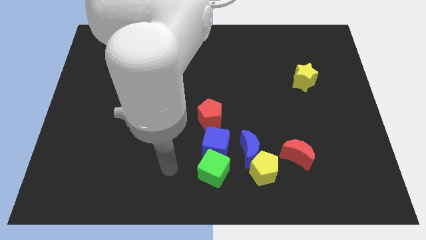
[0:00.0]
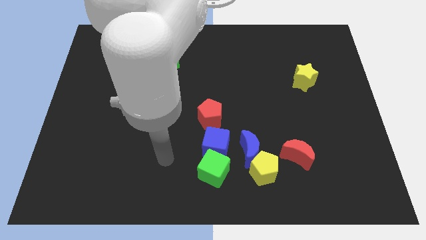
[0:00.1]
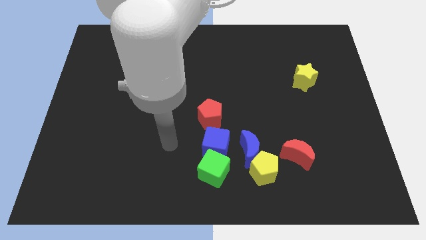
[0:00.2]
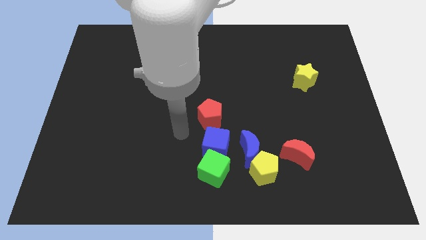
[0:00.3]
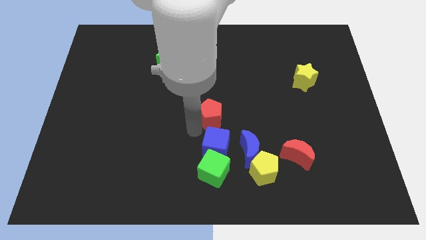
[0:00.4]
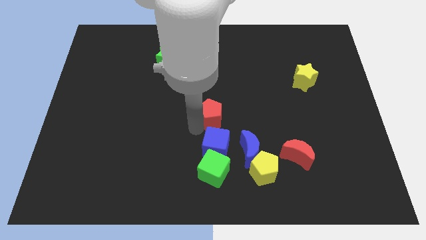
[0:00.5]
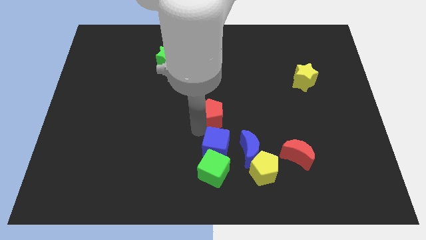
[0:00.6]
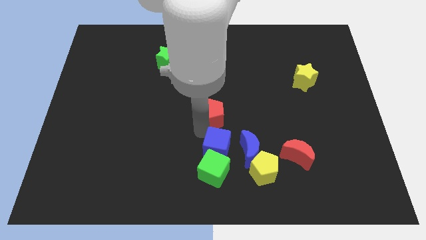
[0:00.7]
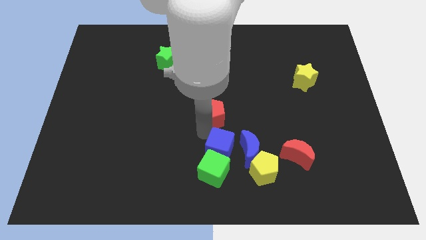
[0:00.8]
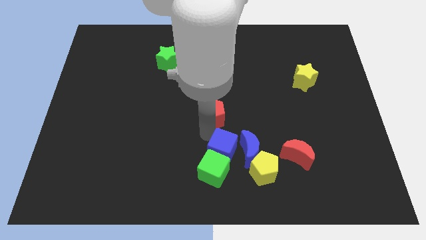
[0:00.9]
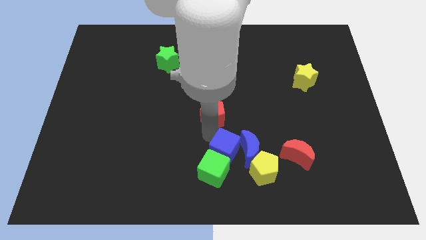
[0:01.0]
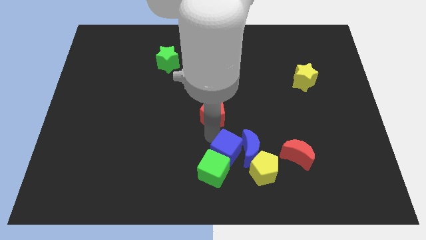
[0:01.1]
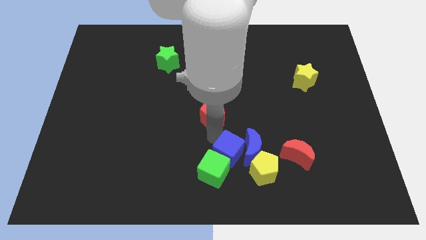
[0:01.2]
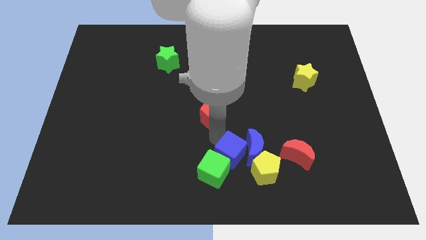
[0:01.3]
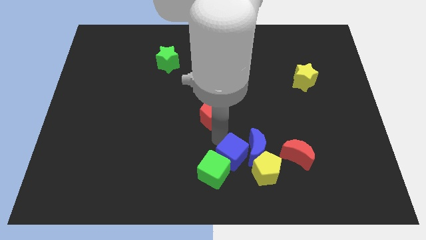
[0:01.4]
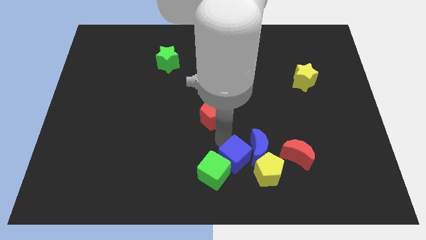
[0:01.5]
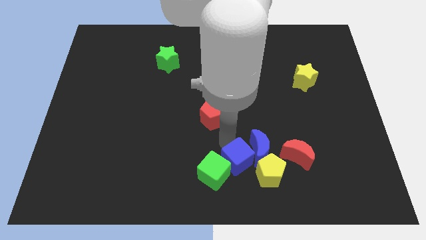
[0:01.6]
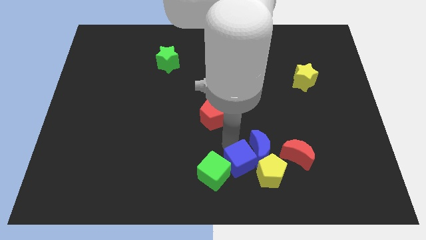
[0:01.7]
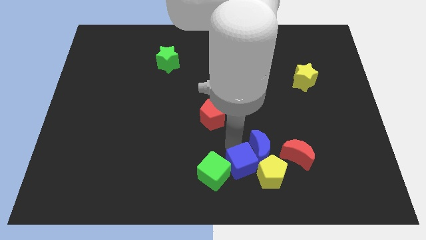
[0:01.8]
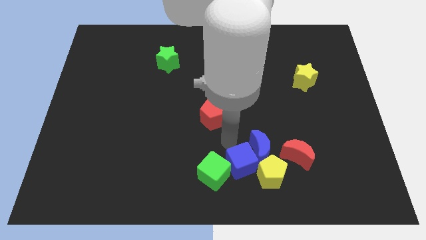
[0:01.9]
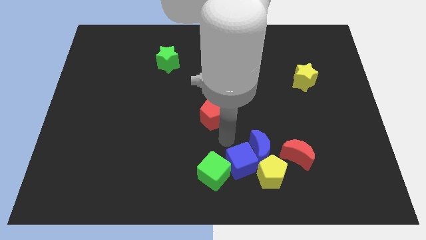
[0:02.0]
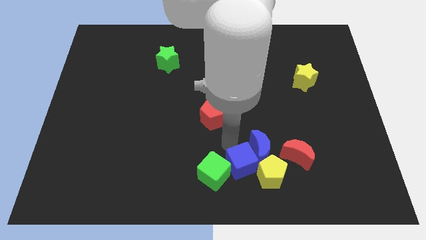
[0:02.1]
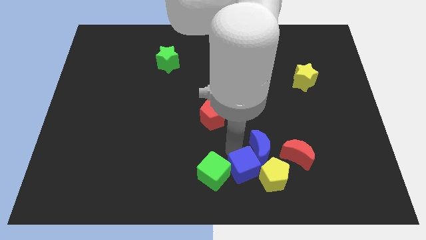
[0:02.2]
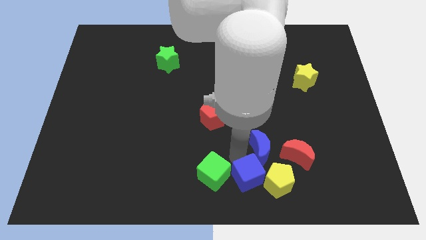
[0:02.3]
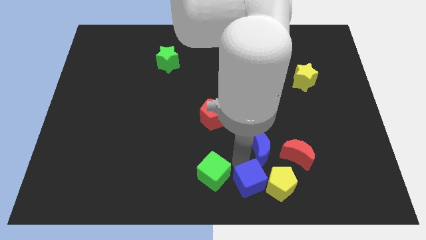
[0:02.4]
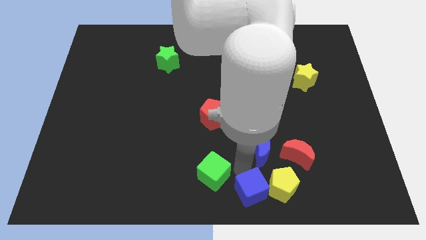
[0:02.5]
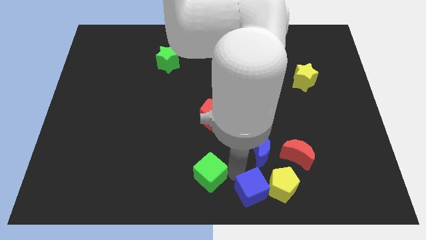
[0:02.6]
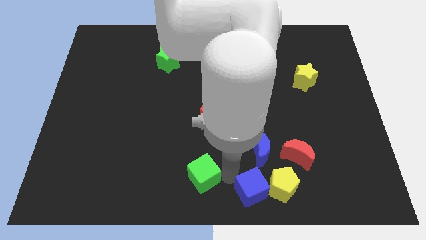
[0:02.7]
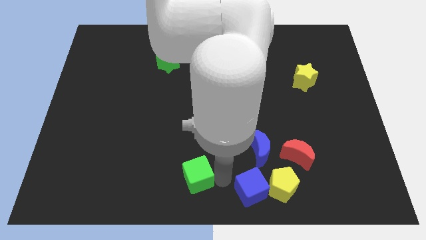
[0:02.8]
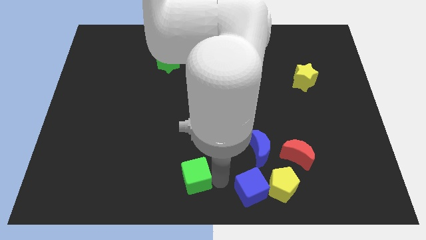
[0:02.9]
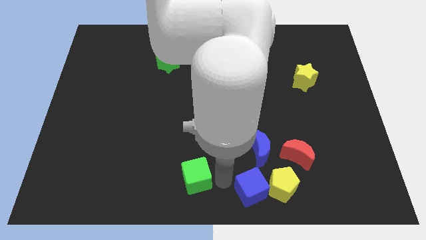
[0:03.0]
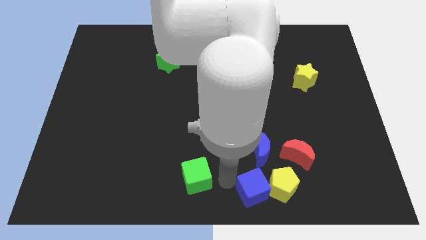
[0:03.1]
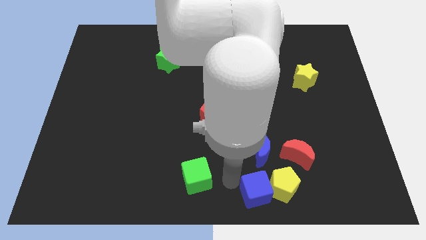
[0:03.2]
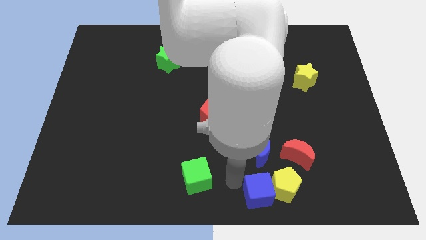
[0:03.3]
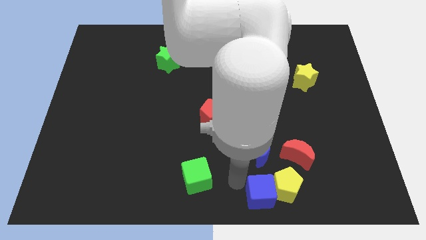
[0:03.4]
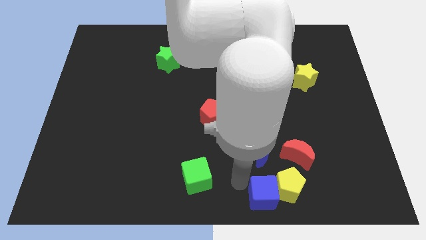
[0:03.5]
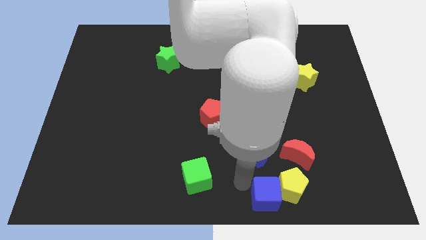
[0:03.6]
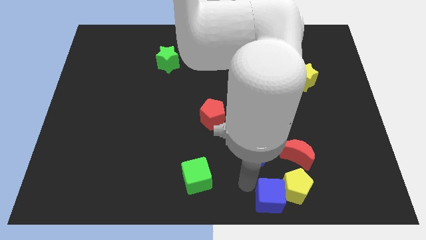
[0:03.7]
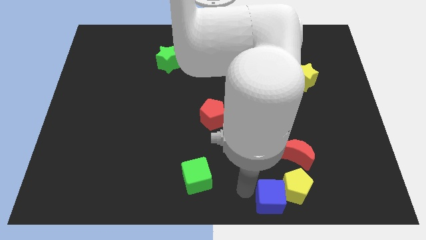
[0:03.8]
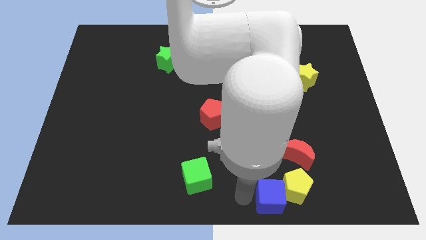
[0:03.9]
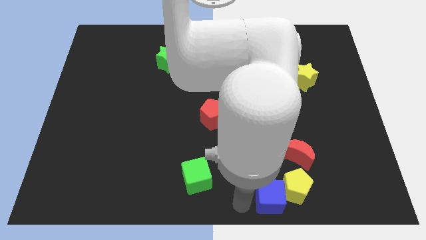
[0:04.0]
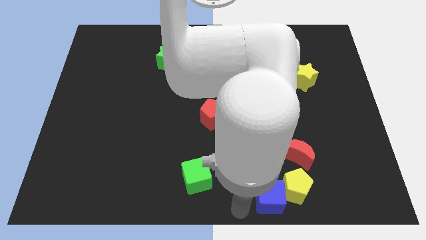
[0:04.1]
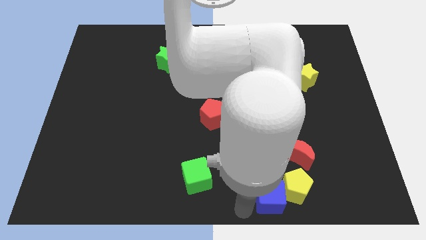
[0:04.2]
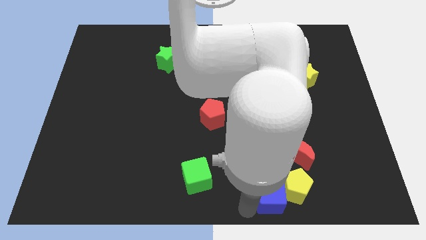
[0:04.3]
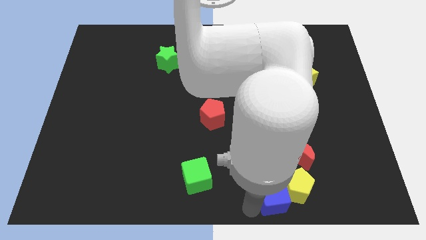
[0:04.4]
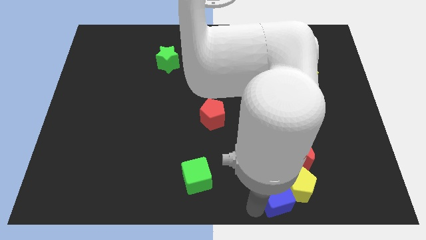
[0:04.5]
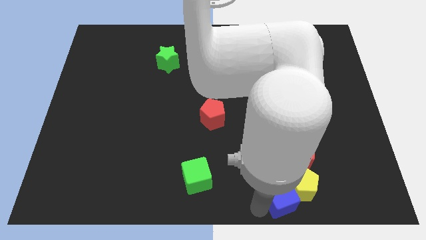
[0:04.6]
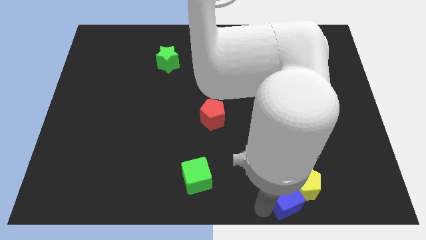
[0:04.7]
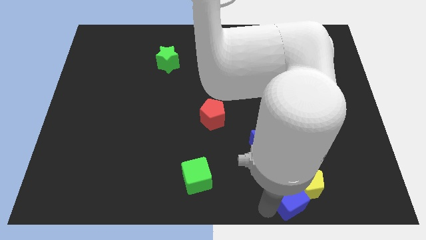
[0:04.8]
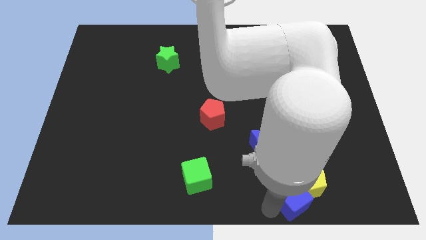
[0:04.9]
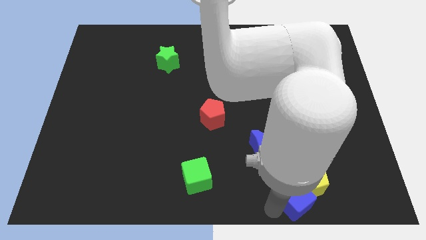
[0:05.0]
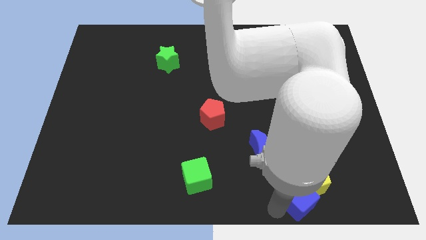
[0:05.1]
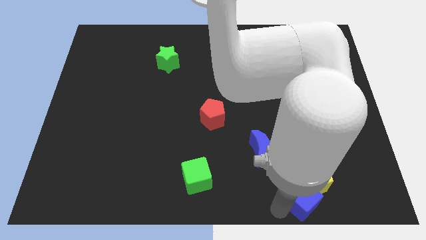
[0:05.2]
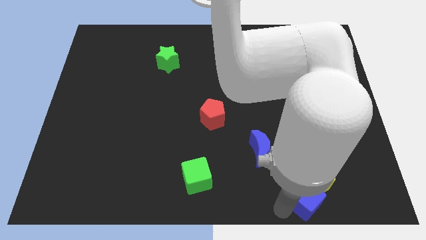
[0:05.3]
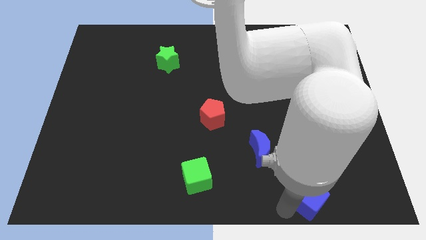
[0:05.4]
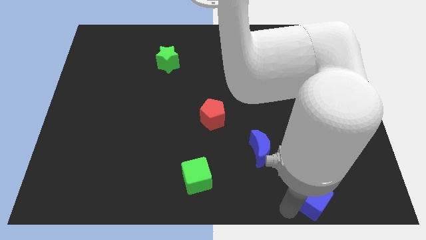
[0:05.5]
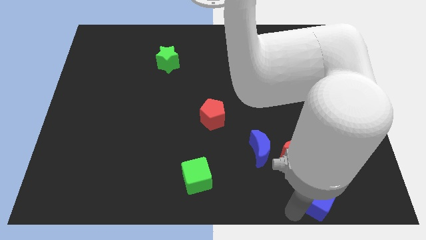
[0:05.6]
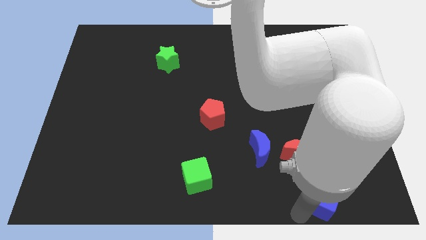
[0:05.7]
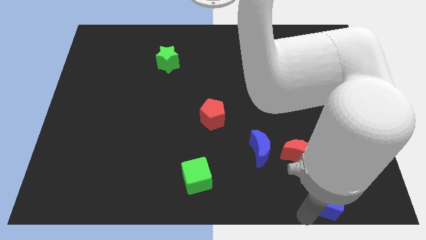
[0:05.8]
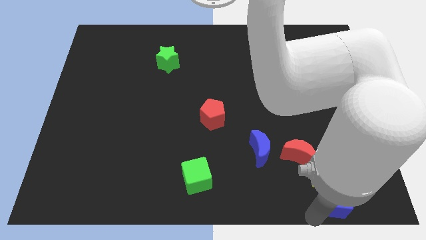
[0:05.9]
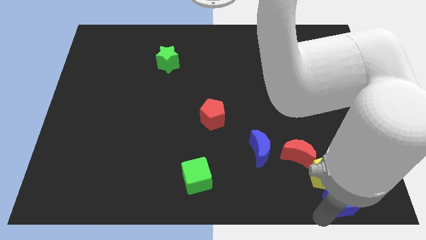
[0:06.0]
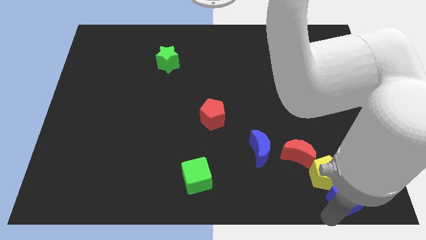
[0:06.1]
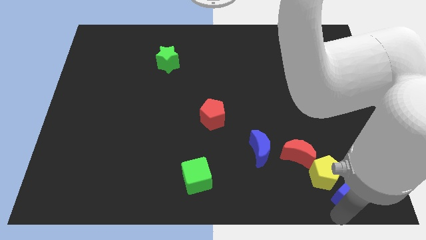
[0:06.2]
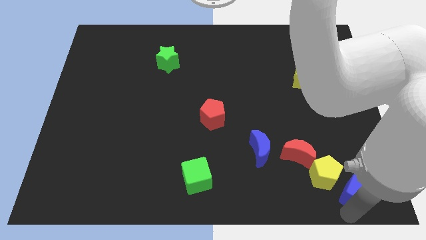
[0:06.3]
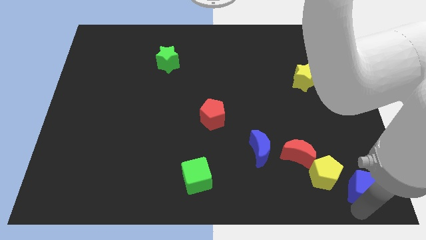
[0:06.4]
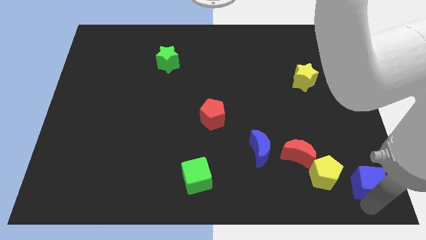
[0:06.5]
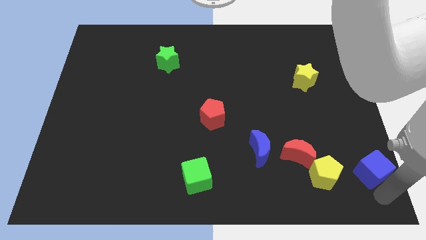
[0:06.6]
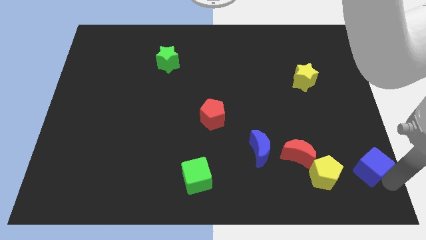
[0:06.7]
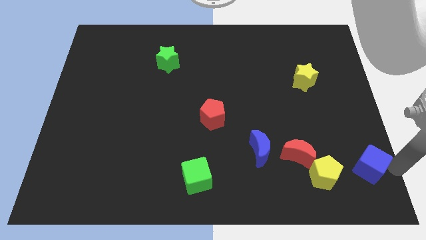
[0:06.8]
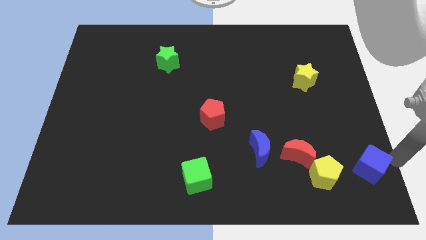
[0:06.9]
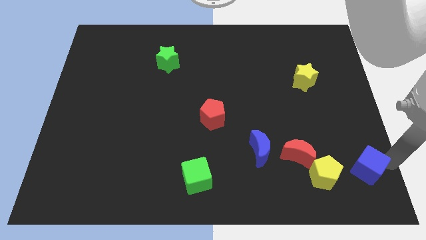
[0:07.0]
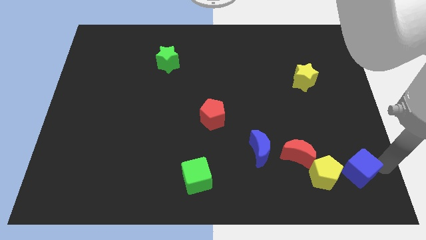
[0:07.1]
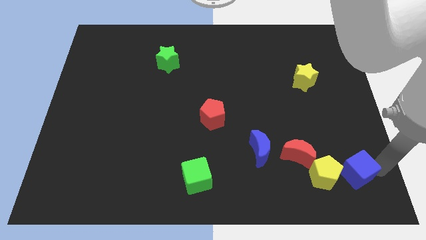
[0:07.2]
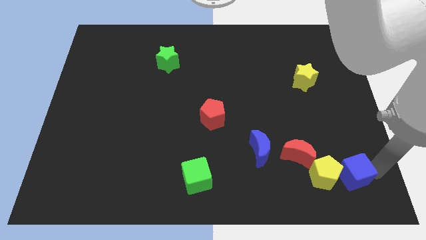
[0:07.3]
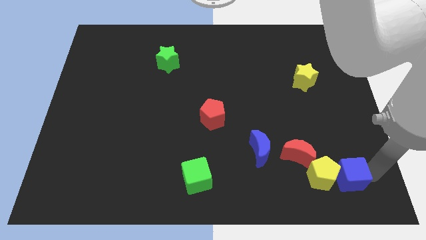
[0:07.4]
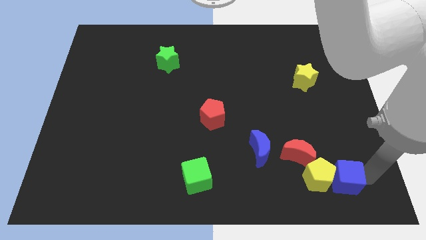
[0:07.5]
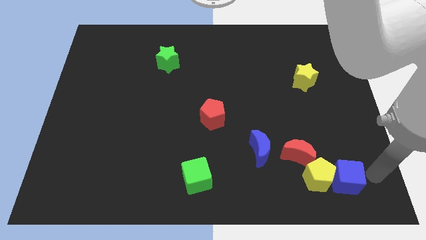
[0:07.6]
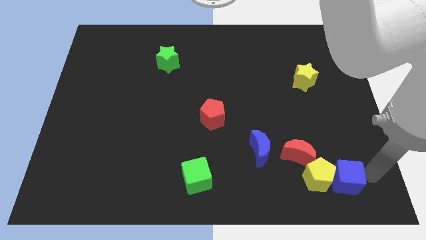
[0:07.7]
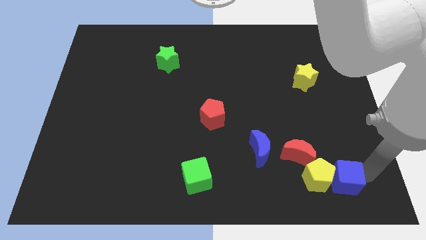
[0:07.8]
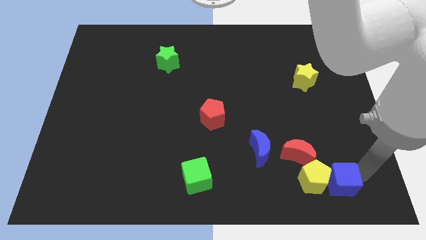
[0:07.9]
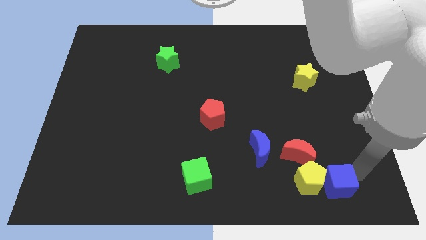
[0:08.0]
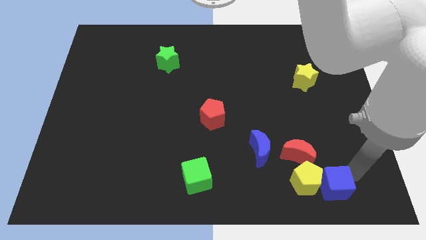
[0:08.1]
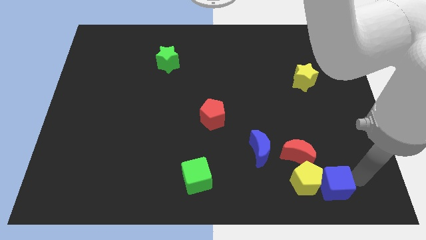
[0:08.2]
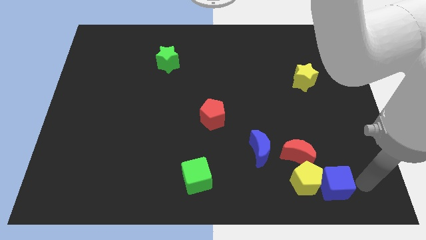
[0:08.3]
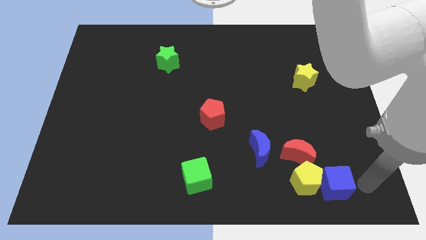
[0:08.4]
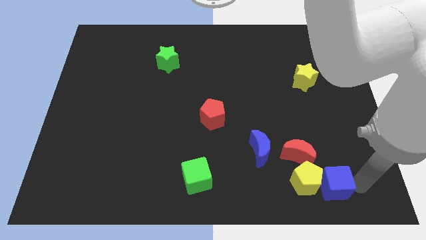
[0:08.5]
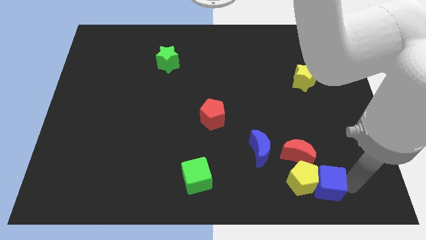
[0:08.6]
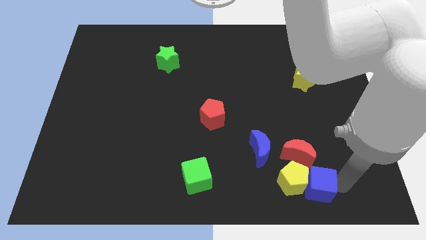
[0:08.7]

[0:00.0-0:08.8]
push the blue cube to the right side of the yellow pentagon
